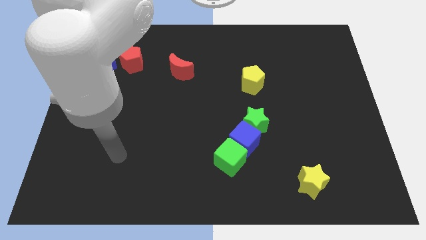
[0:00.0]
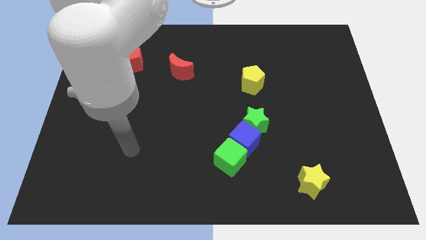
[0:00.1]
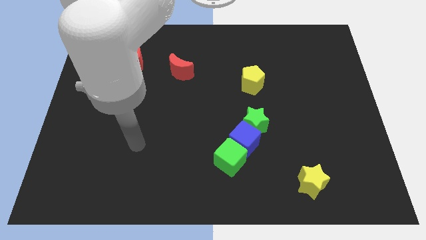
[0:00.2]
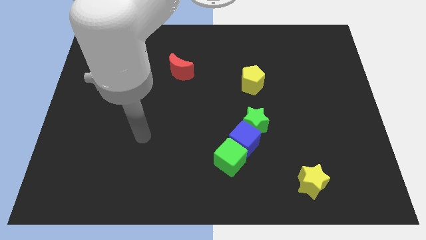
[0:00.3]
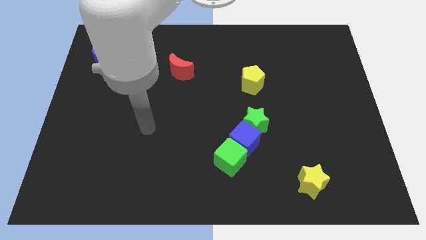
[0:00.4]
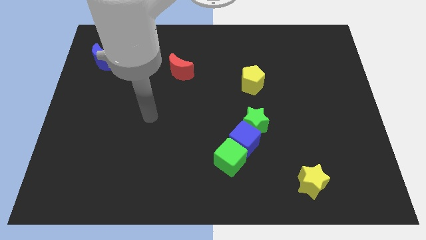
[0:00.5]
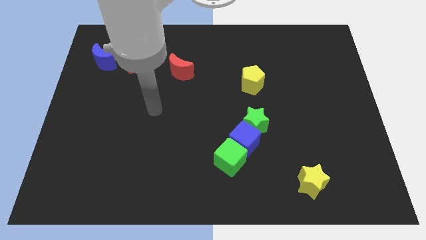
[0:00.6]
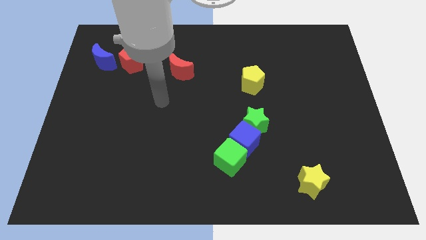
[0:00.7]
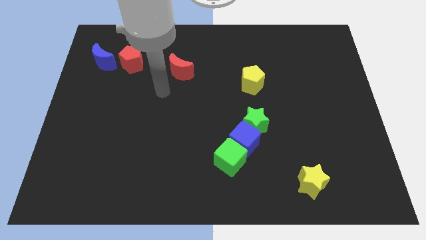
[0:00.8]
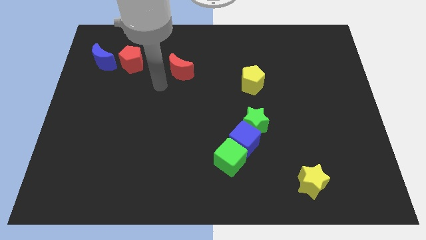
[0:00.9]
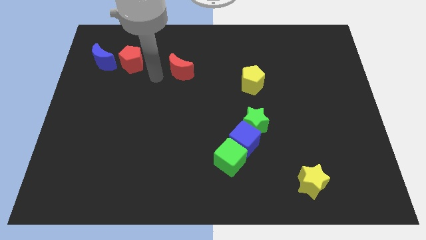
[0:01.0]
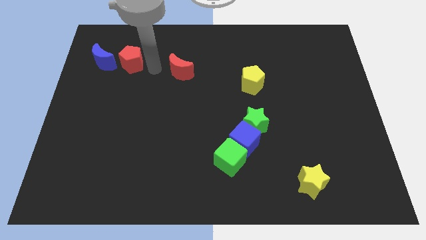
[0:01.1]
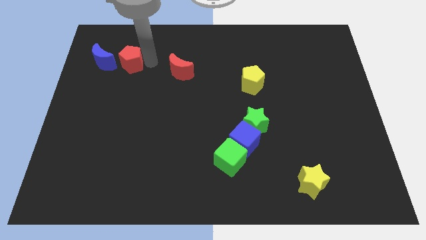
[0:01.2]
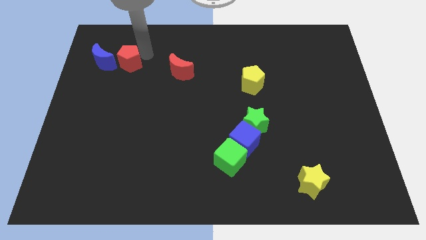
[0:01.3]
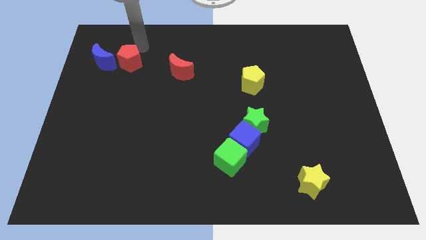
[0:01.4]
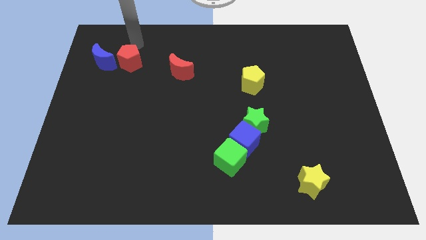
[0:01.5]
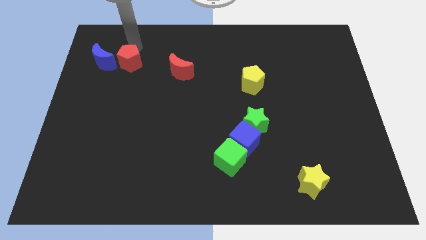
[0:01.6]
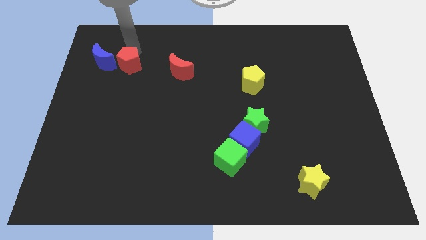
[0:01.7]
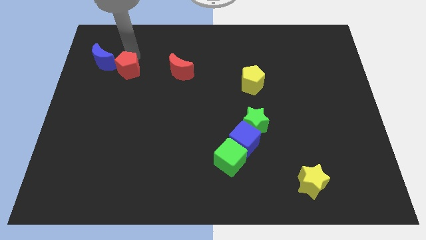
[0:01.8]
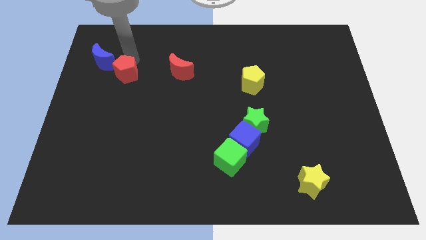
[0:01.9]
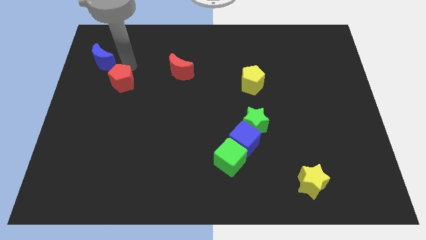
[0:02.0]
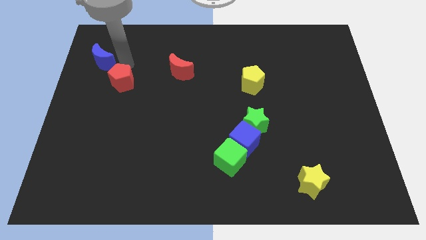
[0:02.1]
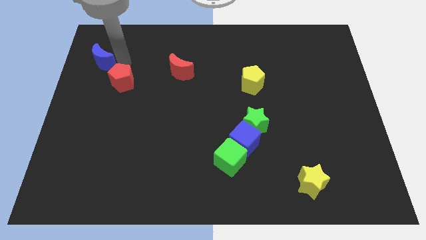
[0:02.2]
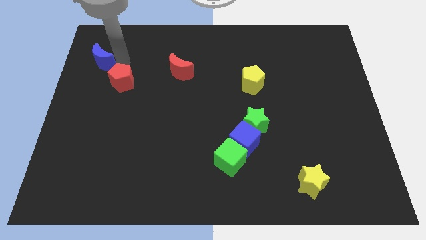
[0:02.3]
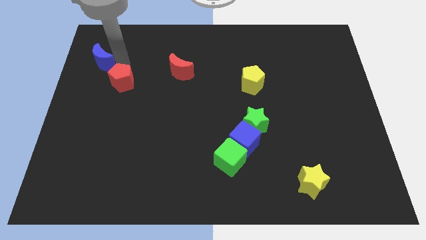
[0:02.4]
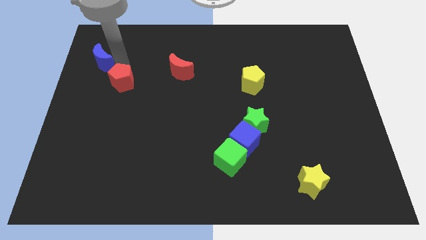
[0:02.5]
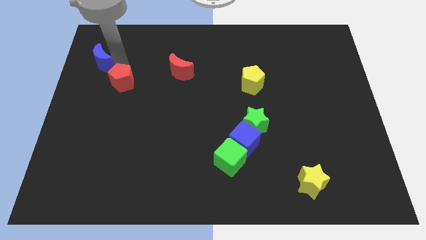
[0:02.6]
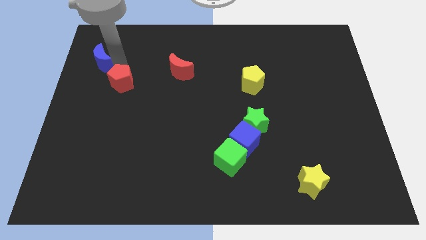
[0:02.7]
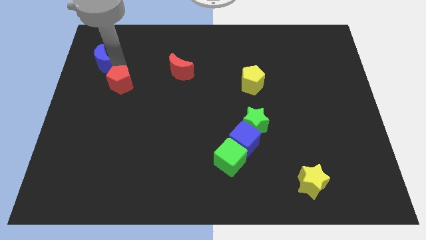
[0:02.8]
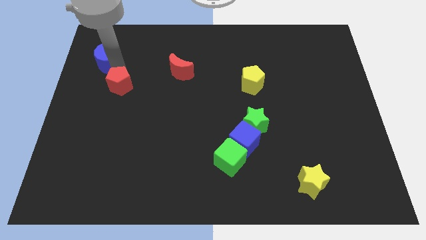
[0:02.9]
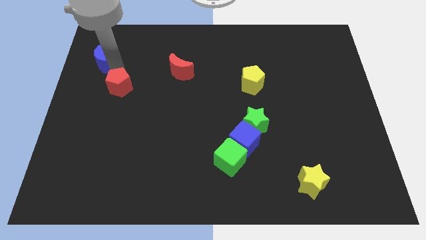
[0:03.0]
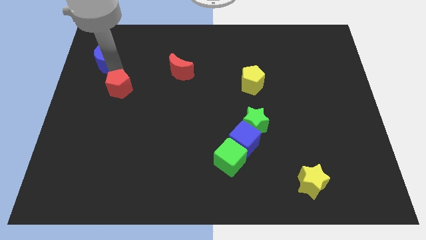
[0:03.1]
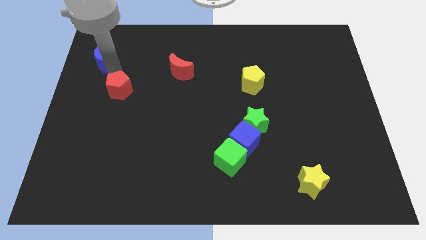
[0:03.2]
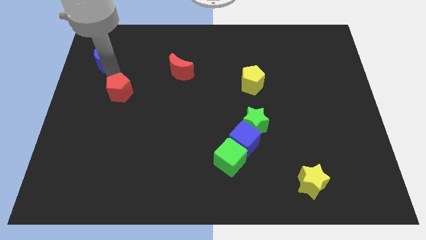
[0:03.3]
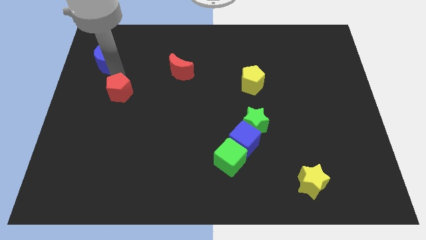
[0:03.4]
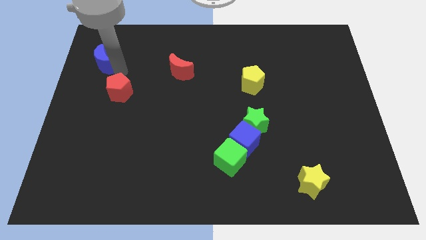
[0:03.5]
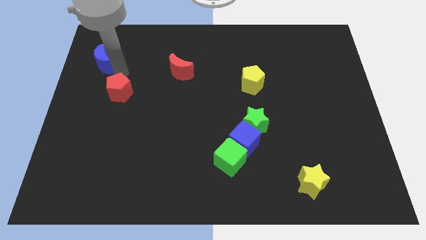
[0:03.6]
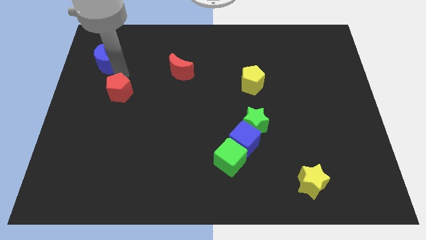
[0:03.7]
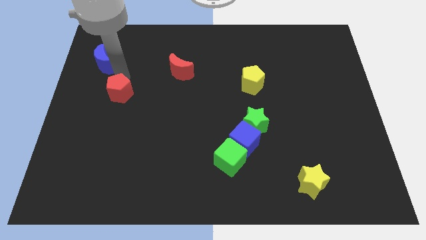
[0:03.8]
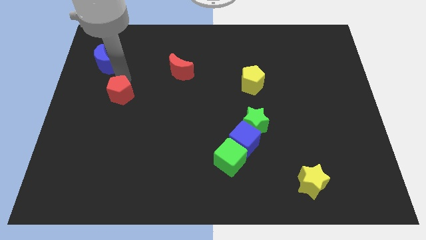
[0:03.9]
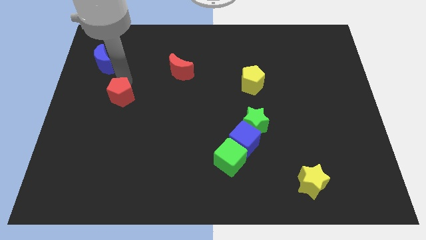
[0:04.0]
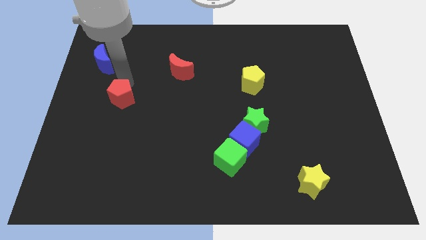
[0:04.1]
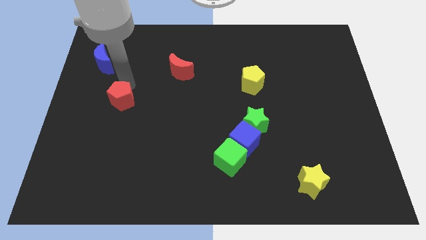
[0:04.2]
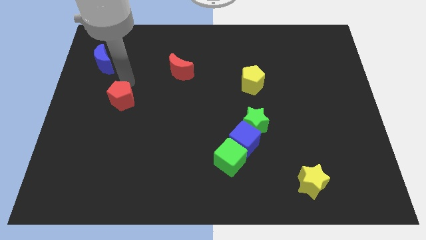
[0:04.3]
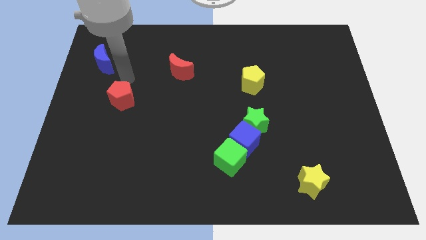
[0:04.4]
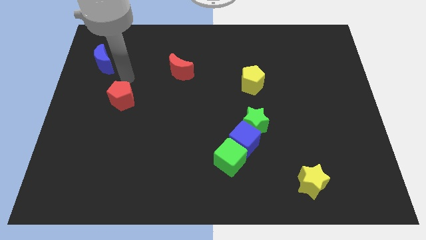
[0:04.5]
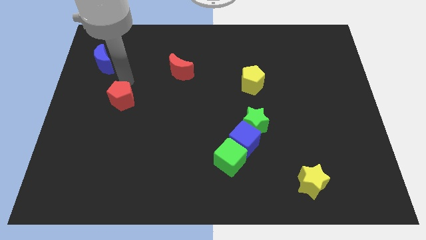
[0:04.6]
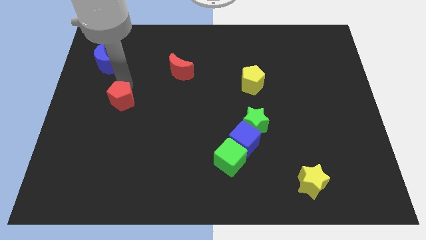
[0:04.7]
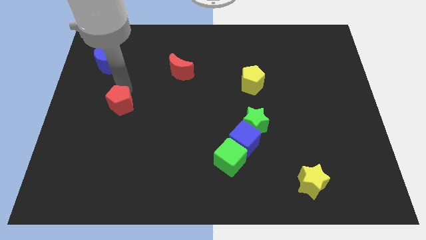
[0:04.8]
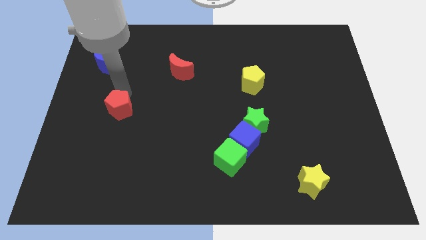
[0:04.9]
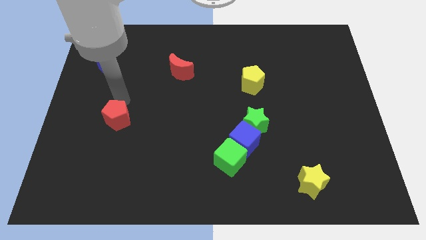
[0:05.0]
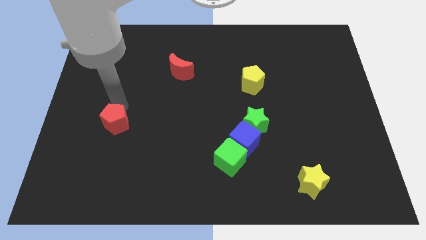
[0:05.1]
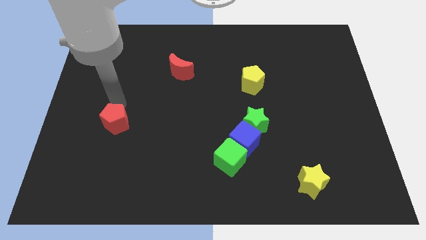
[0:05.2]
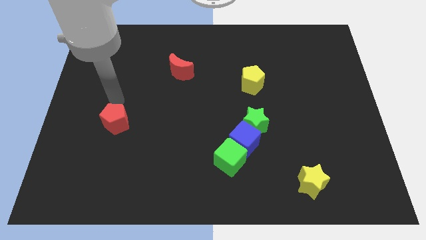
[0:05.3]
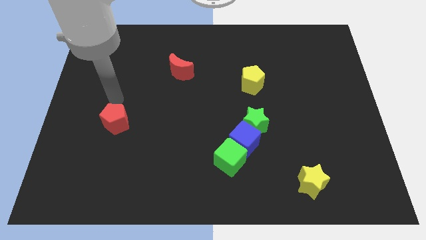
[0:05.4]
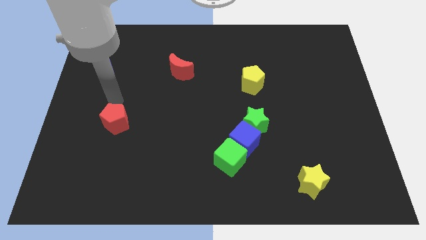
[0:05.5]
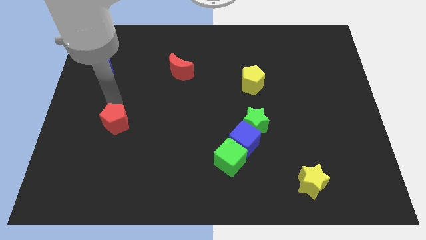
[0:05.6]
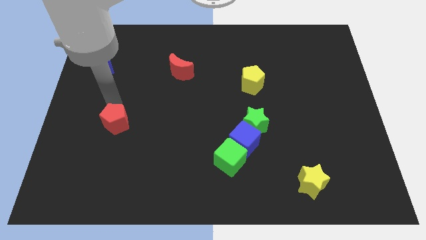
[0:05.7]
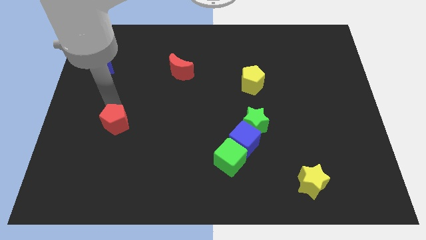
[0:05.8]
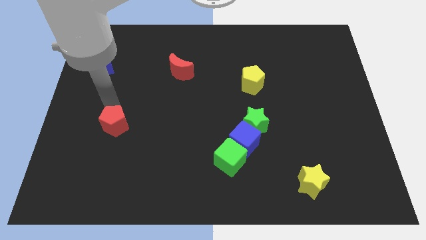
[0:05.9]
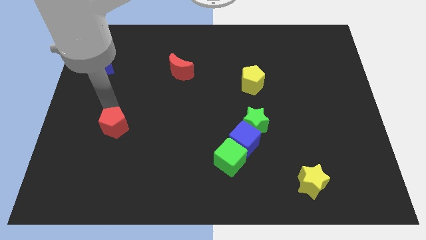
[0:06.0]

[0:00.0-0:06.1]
move the red pentagon down

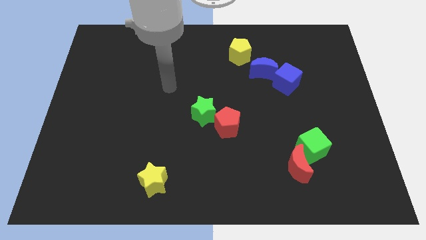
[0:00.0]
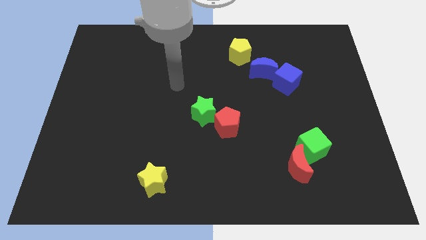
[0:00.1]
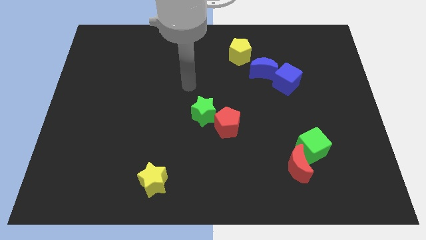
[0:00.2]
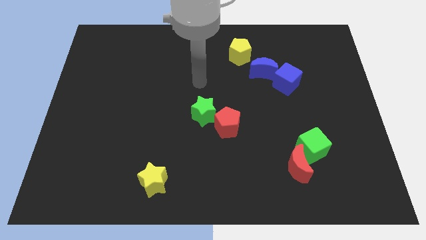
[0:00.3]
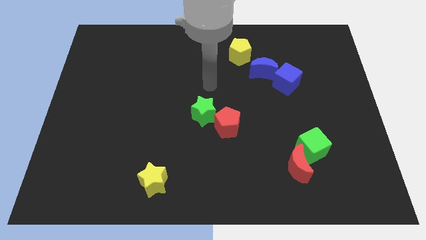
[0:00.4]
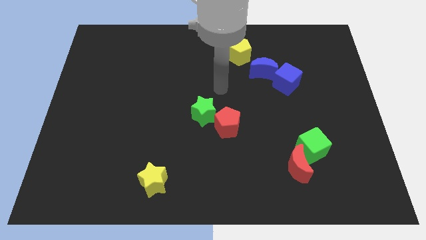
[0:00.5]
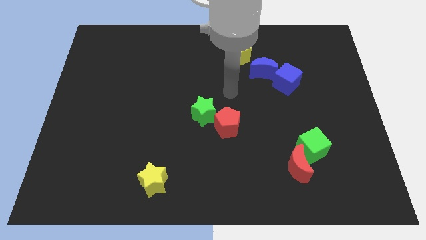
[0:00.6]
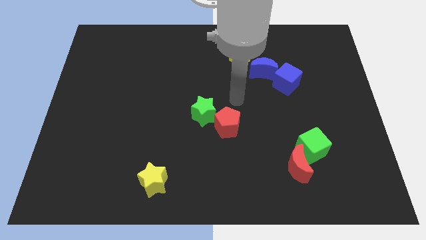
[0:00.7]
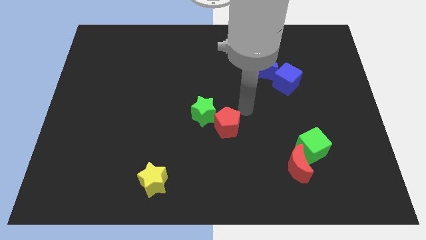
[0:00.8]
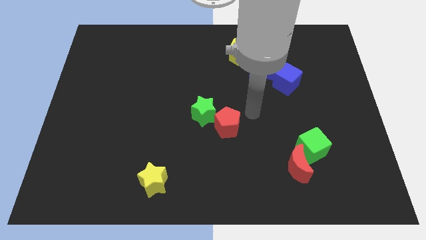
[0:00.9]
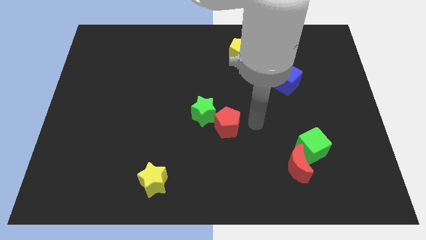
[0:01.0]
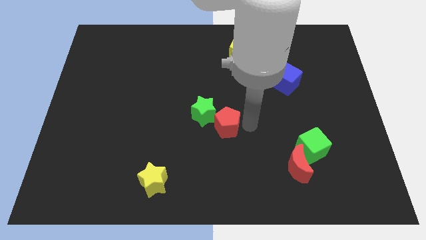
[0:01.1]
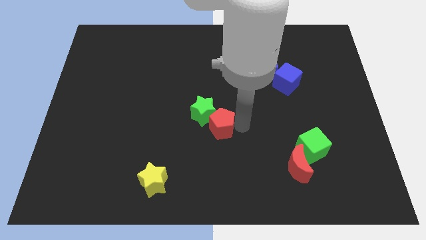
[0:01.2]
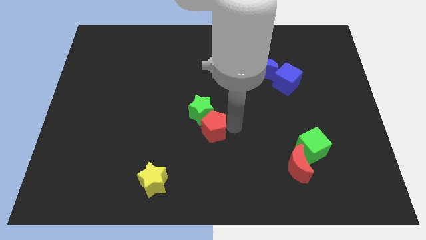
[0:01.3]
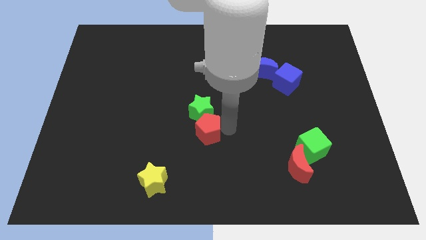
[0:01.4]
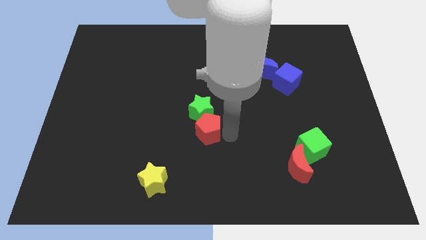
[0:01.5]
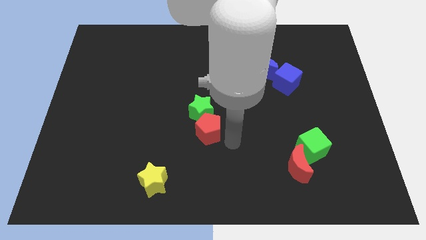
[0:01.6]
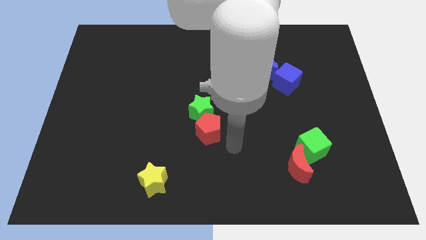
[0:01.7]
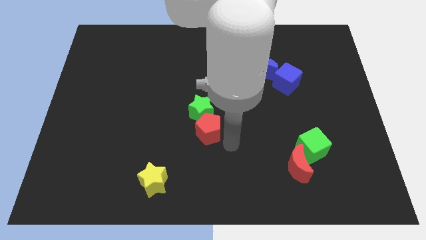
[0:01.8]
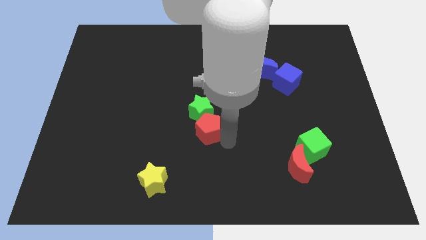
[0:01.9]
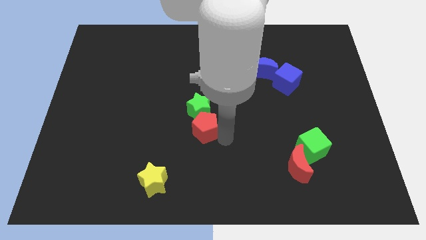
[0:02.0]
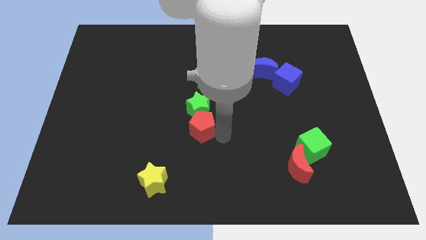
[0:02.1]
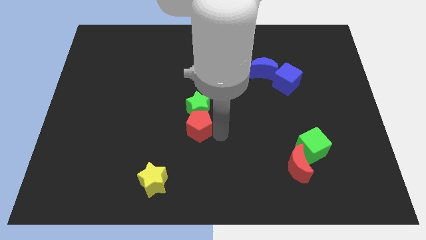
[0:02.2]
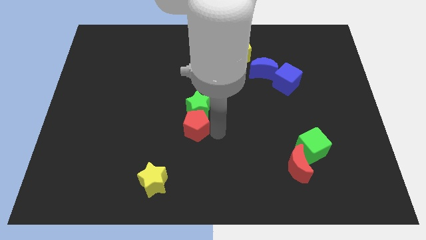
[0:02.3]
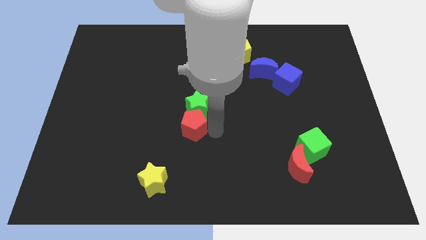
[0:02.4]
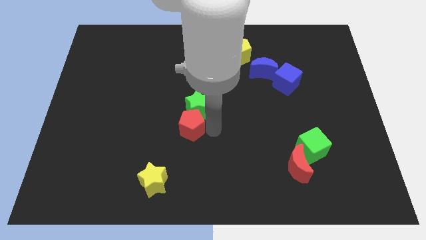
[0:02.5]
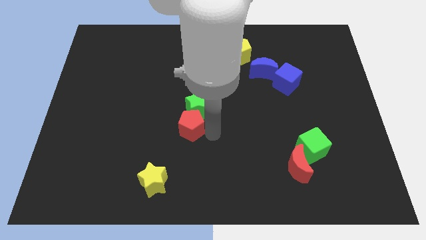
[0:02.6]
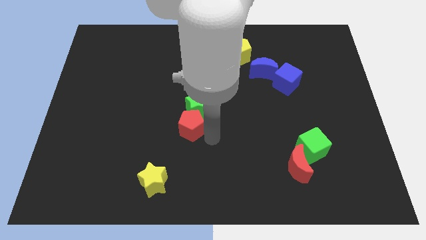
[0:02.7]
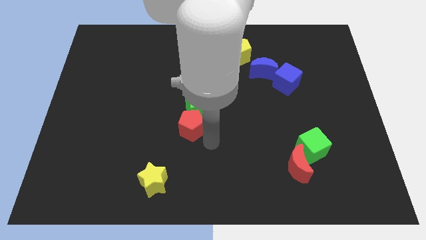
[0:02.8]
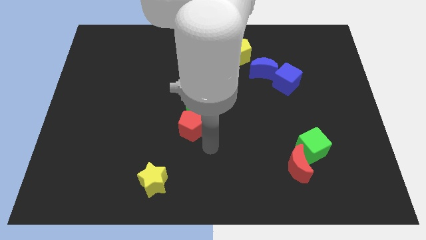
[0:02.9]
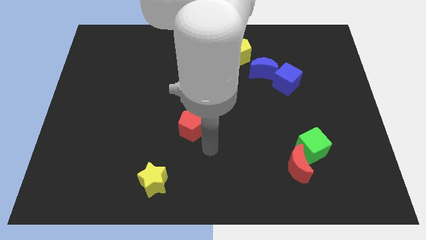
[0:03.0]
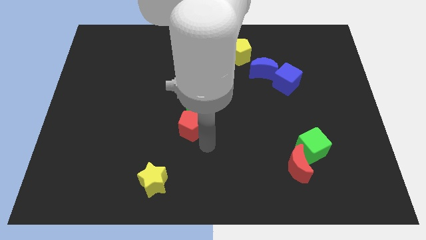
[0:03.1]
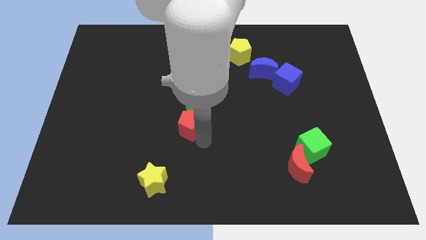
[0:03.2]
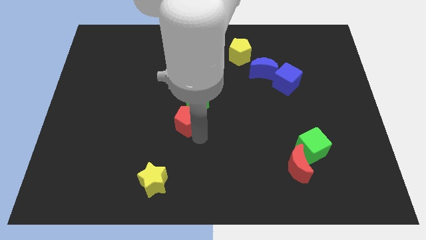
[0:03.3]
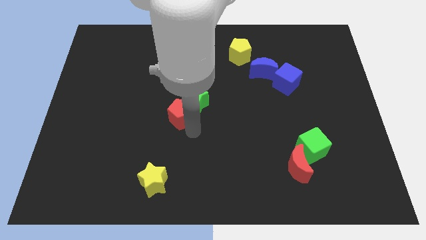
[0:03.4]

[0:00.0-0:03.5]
move the red pentagon upwards and left a little
